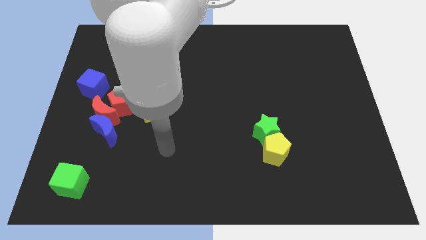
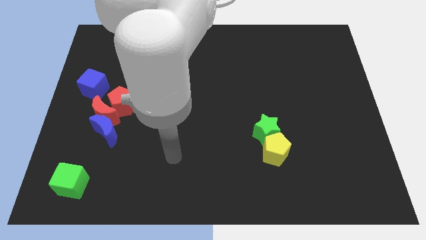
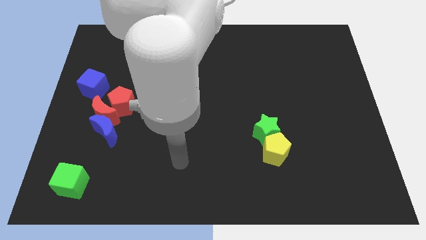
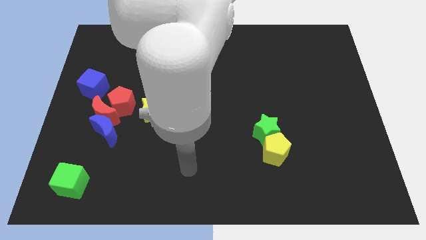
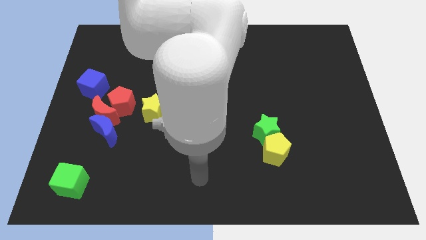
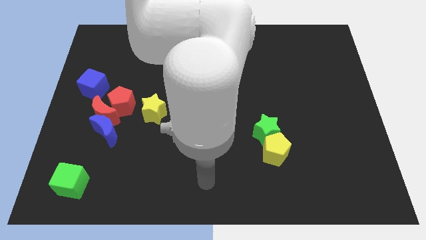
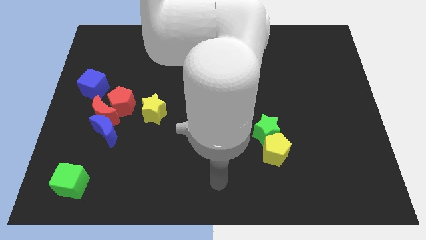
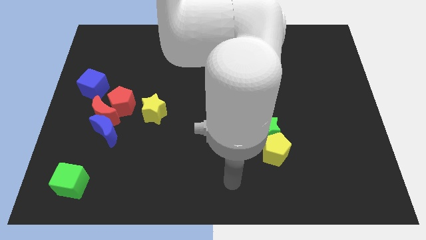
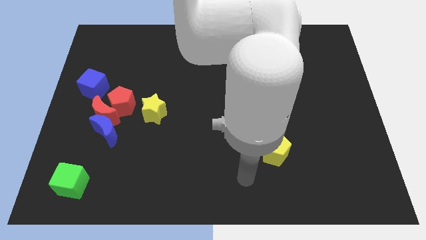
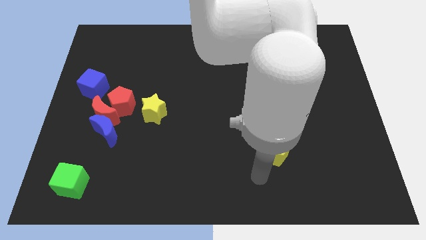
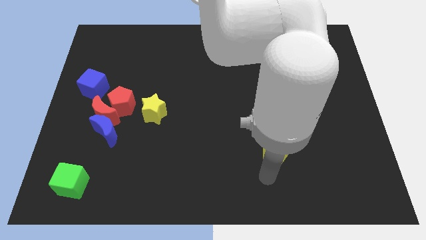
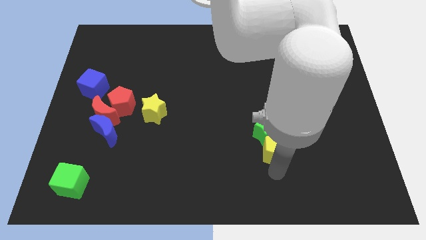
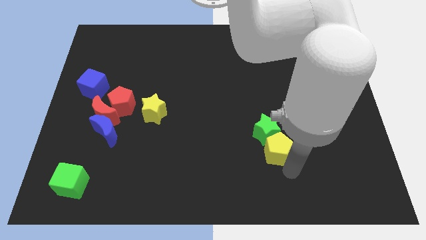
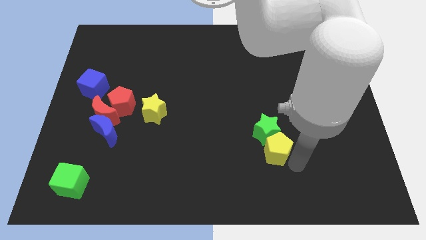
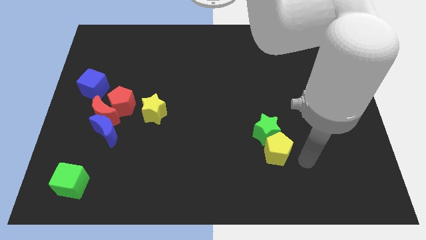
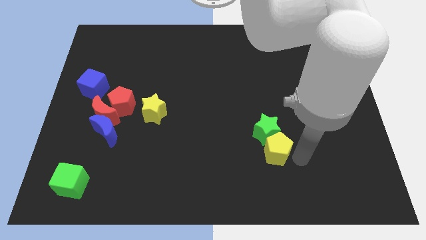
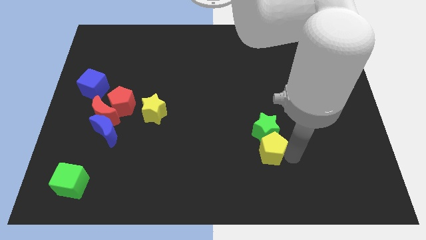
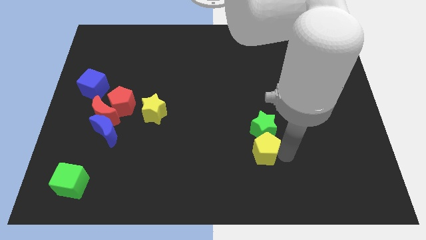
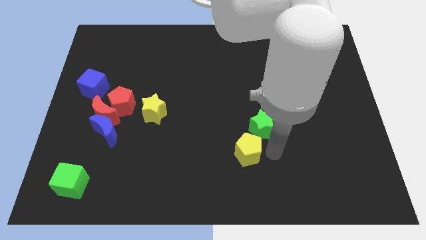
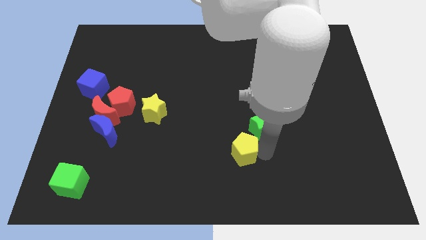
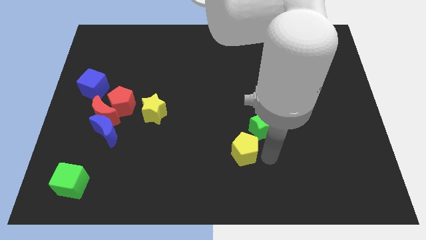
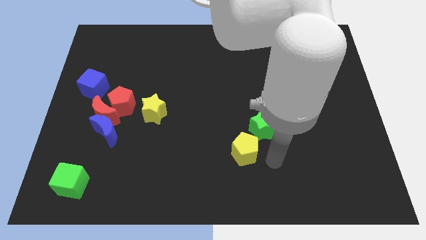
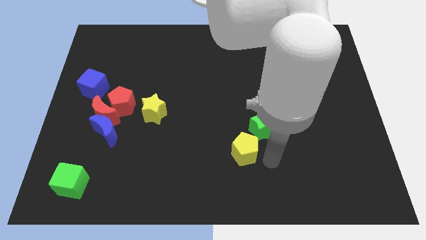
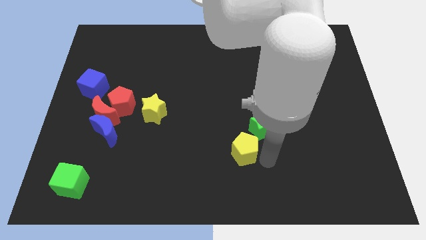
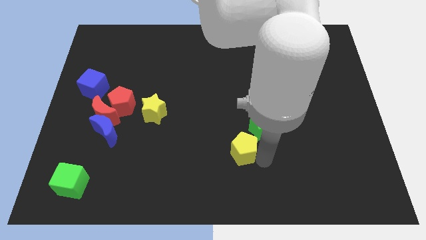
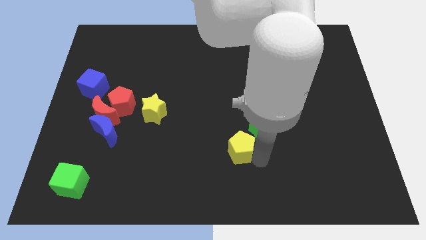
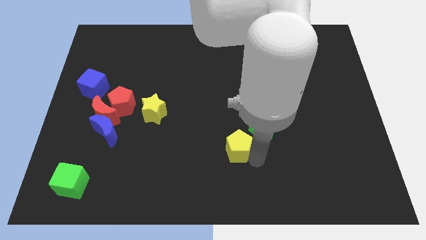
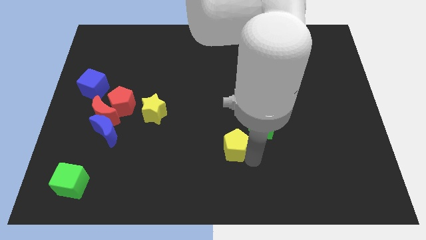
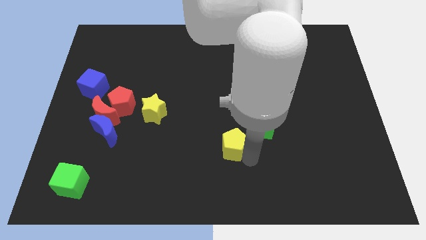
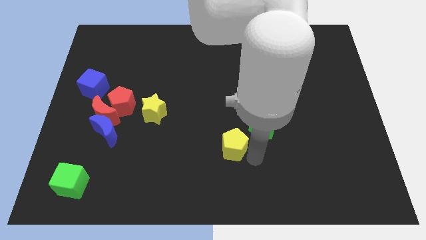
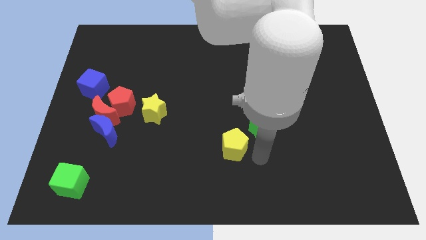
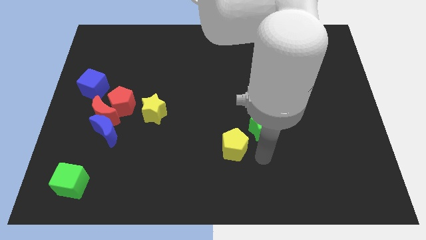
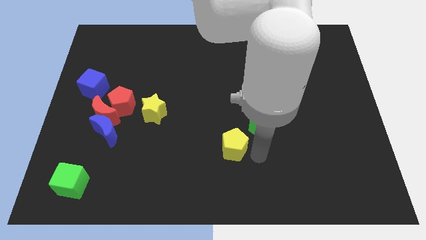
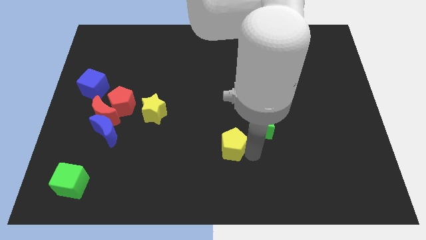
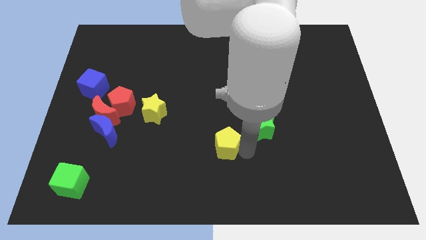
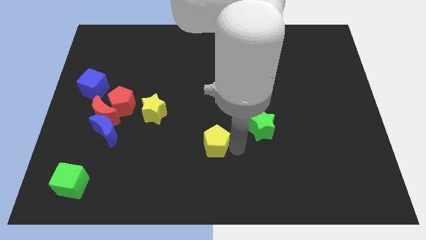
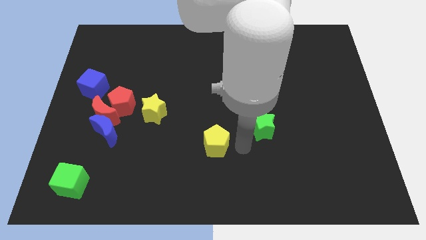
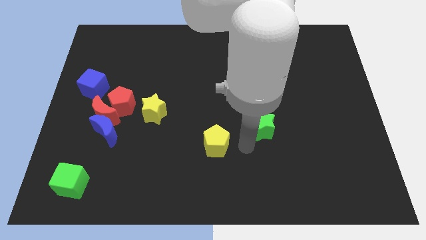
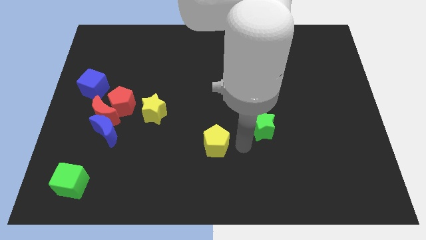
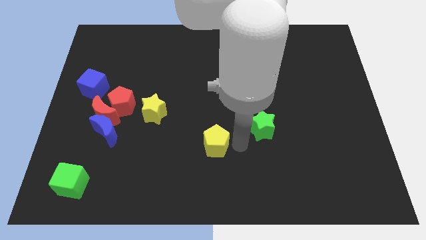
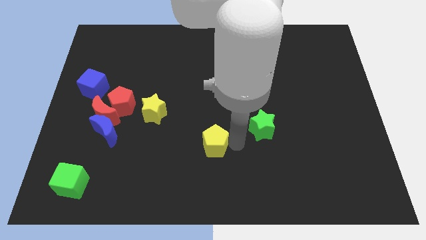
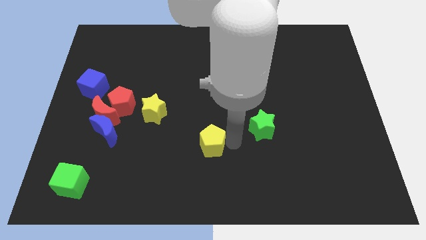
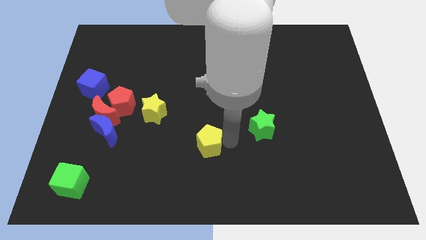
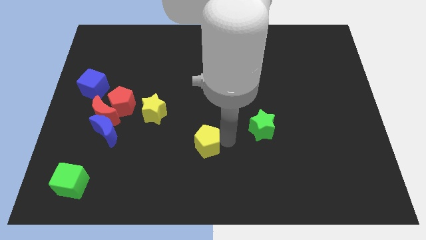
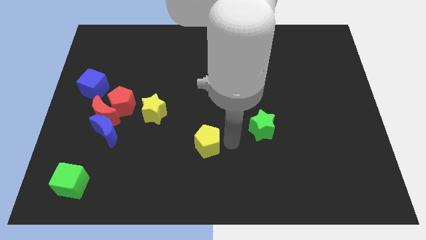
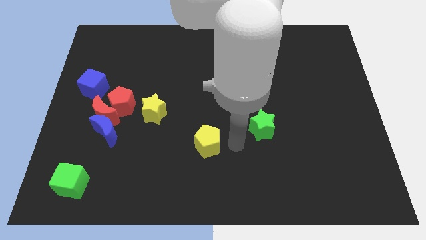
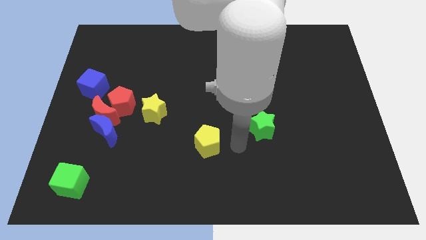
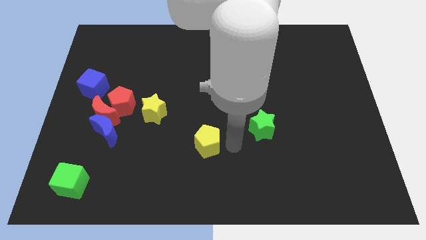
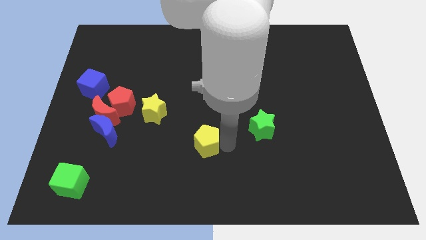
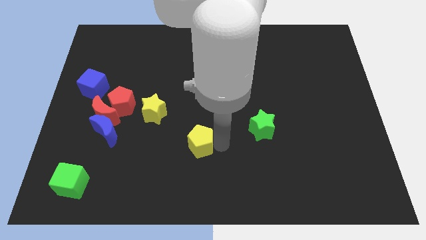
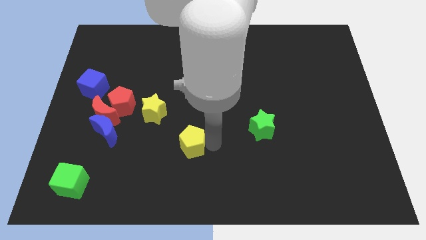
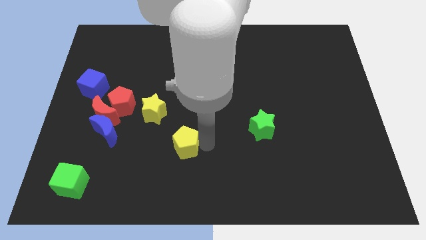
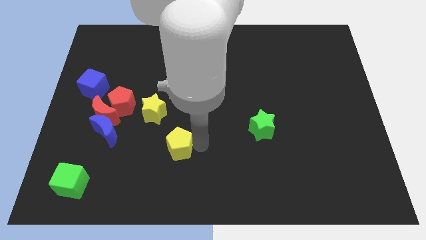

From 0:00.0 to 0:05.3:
push the yellow pentagon left

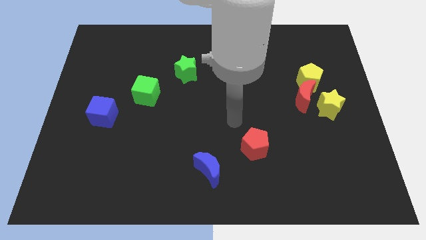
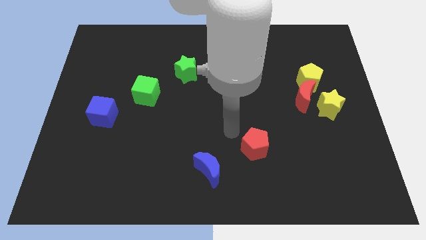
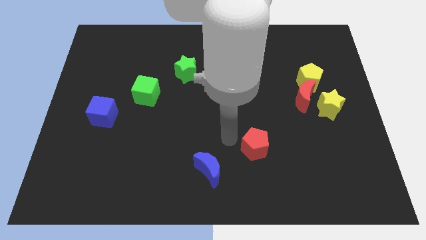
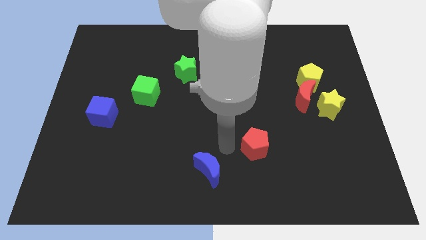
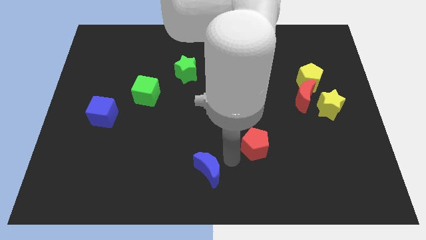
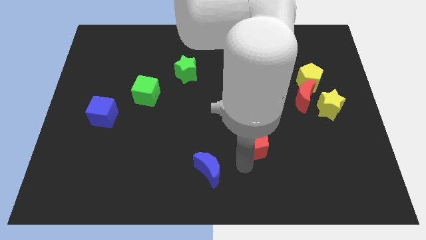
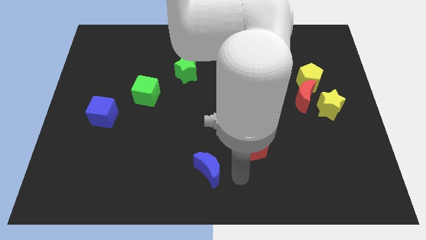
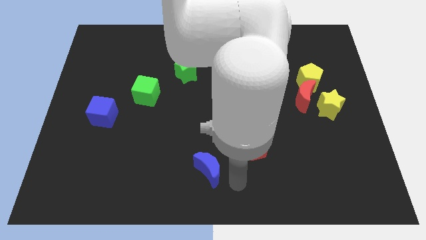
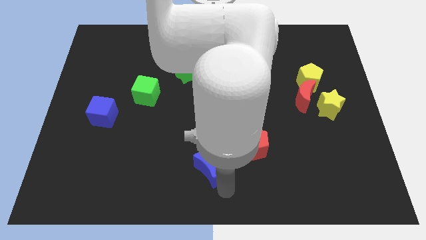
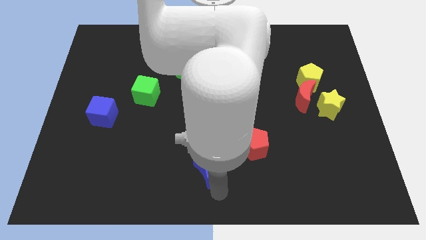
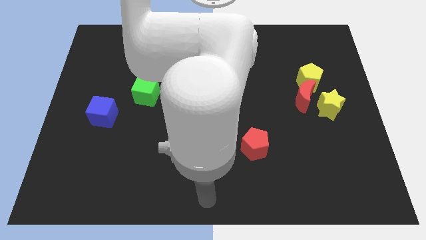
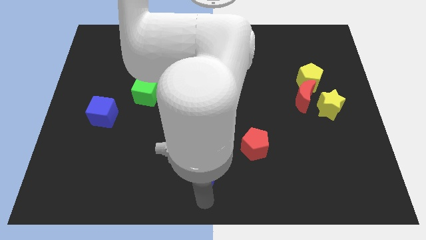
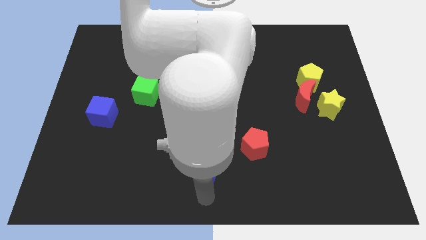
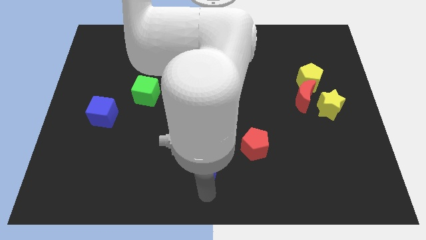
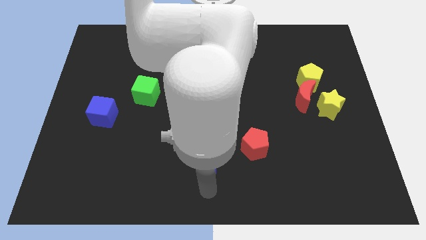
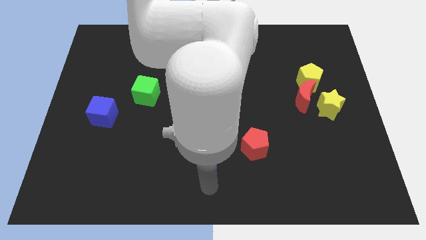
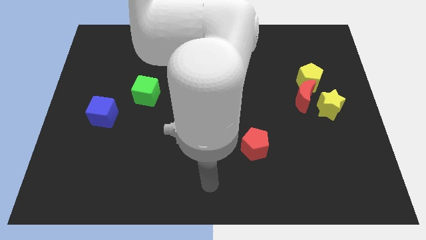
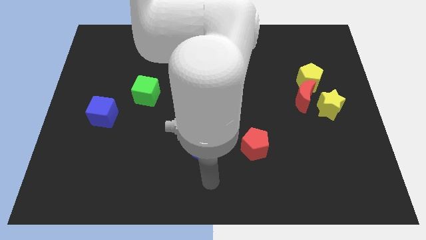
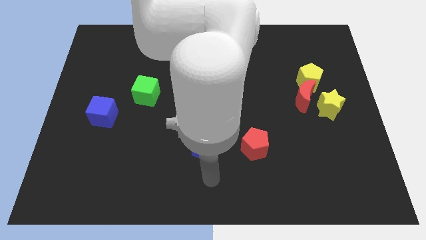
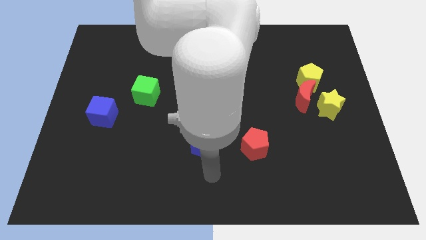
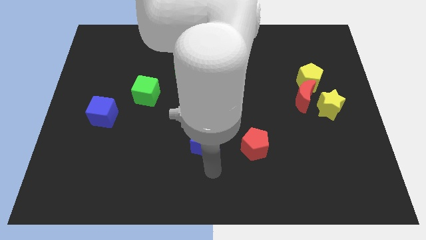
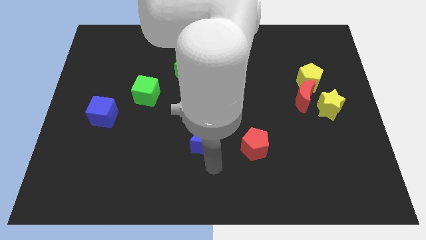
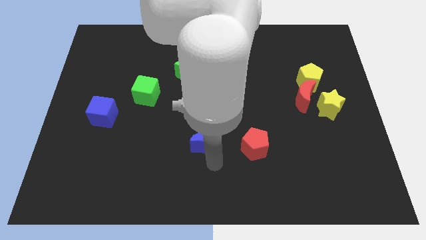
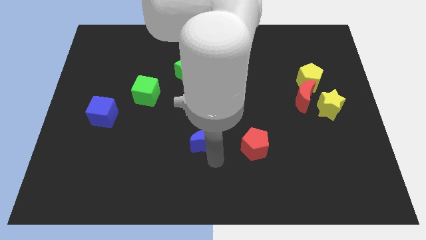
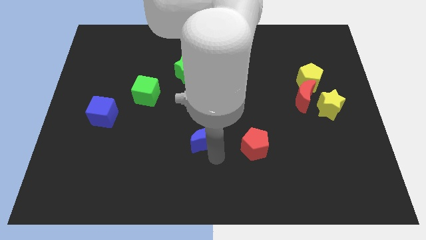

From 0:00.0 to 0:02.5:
slightly push the blue moon upwards

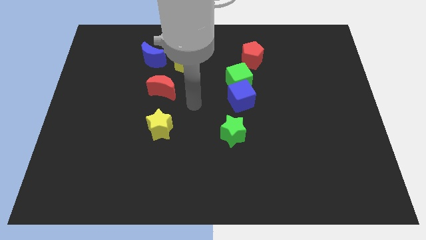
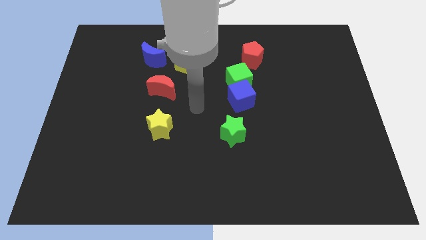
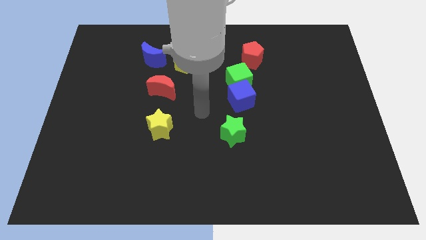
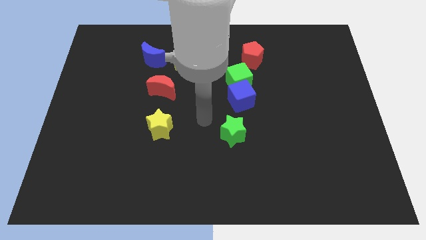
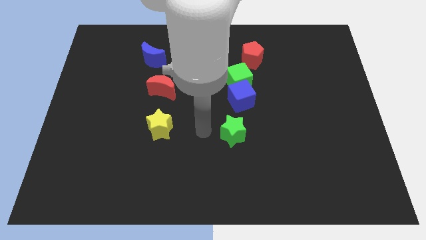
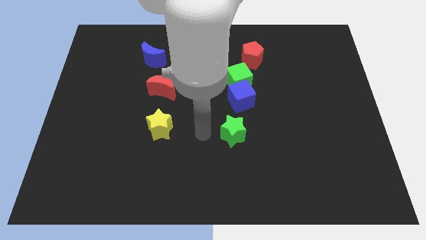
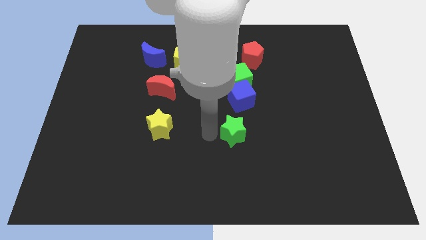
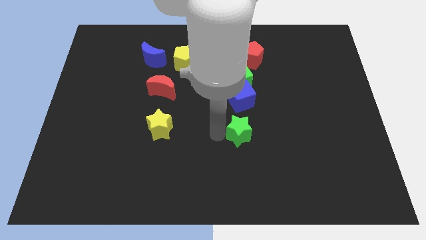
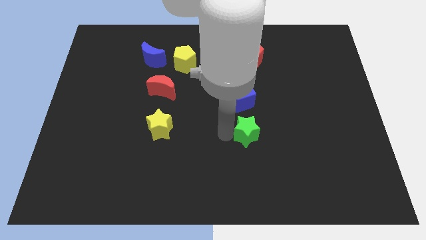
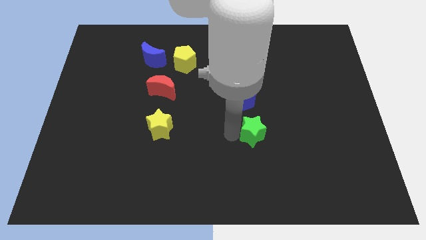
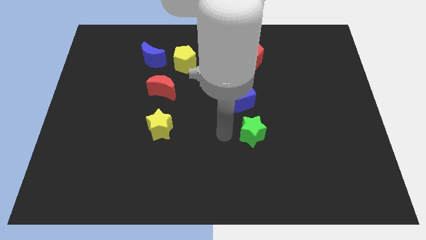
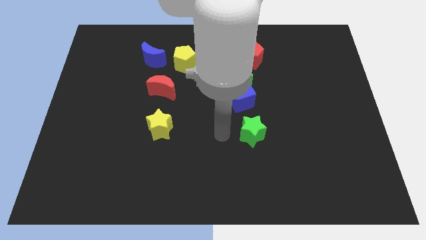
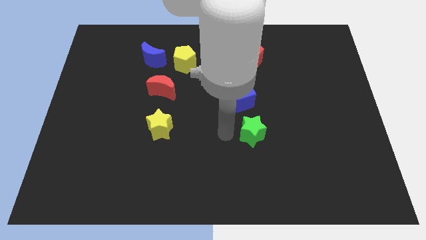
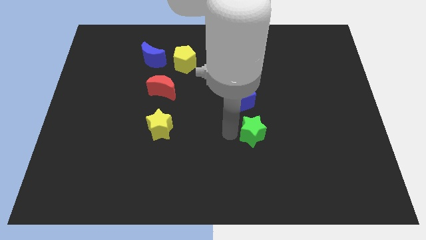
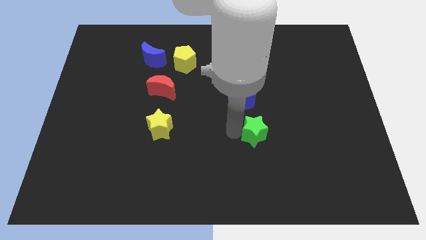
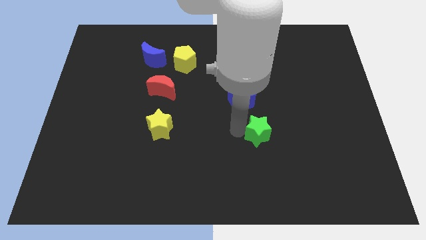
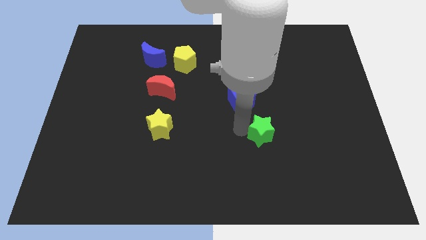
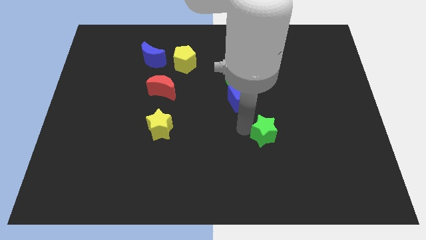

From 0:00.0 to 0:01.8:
slide the green star right somewhat
